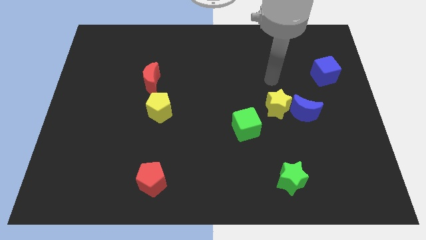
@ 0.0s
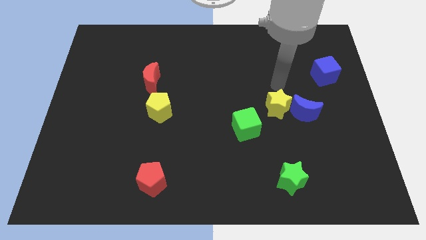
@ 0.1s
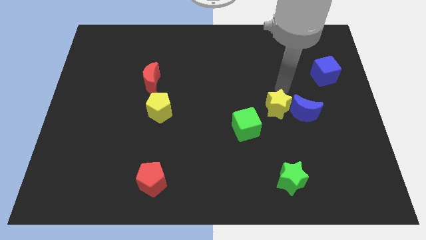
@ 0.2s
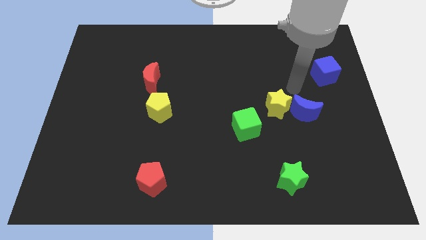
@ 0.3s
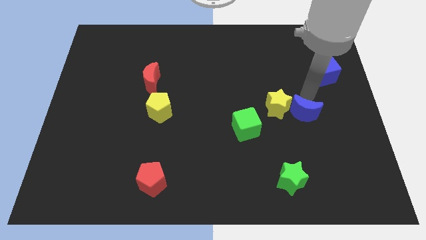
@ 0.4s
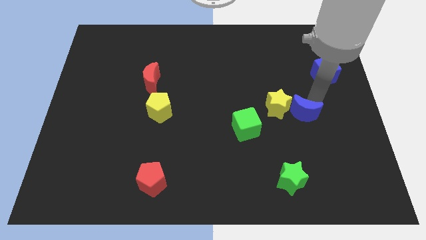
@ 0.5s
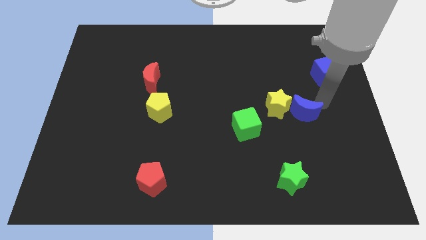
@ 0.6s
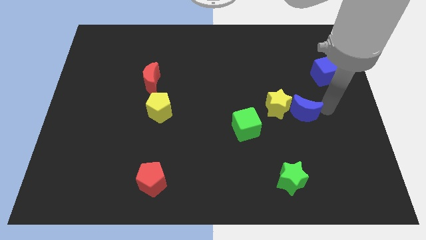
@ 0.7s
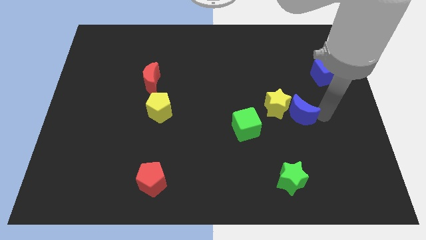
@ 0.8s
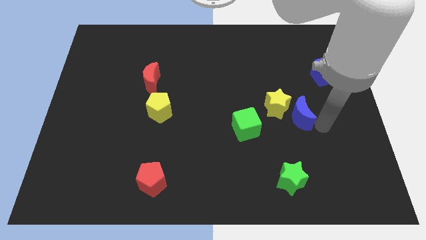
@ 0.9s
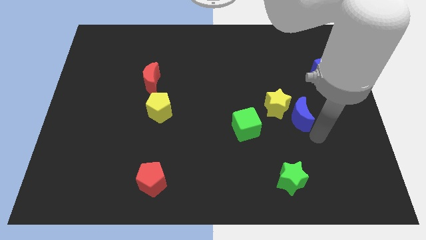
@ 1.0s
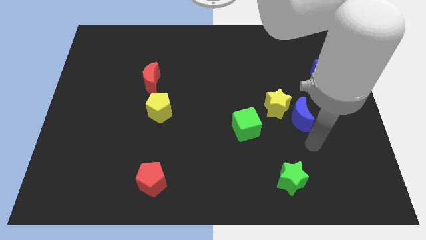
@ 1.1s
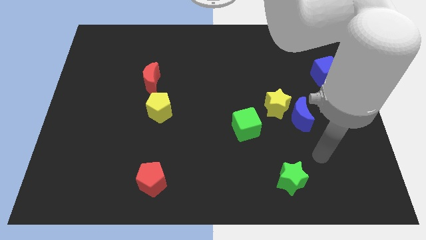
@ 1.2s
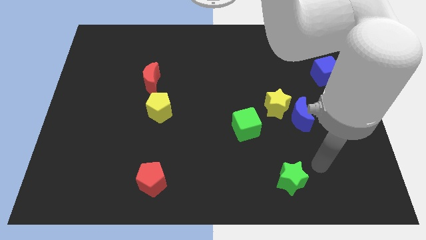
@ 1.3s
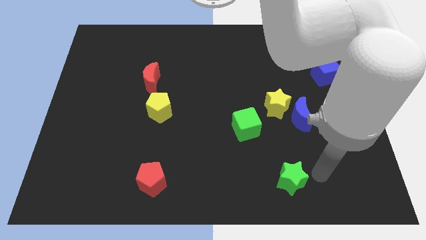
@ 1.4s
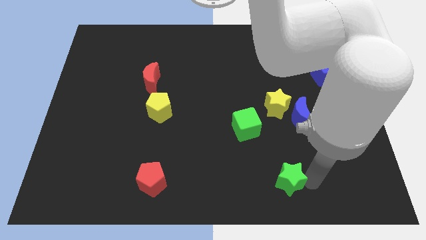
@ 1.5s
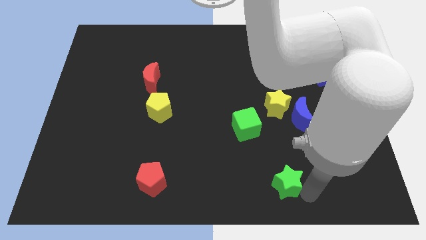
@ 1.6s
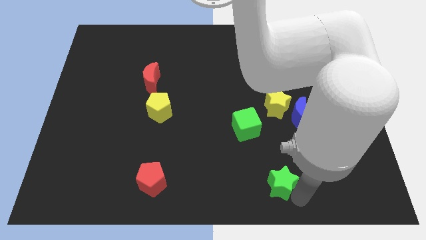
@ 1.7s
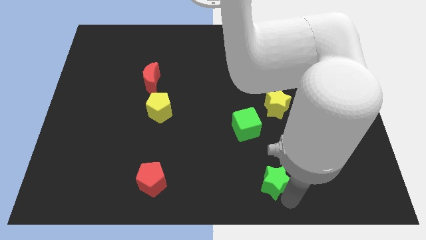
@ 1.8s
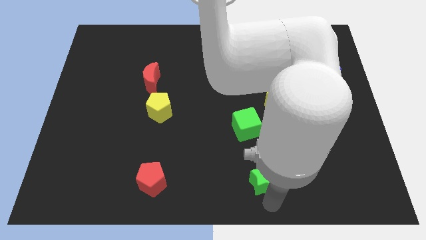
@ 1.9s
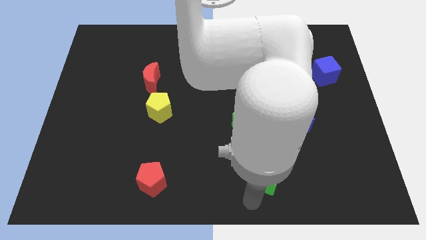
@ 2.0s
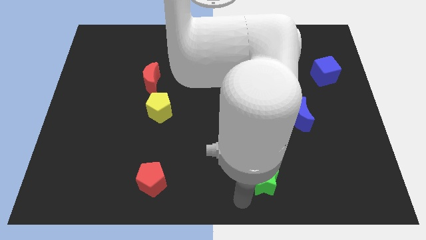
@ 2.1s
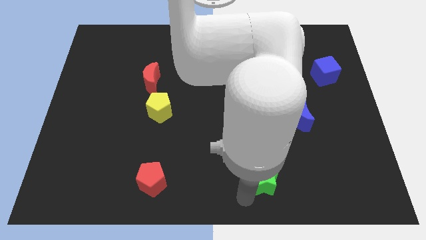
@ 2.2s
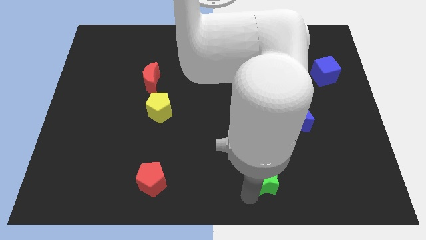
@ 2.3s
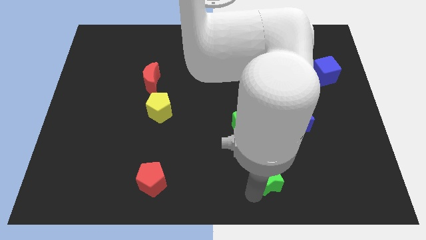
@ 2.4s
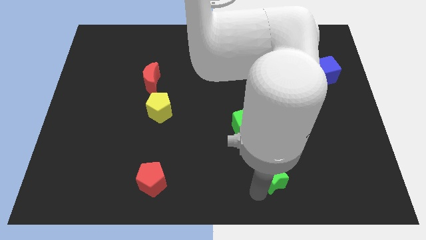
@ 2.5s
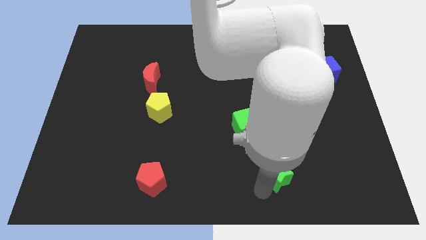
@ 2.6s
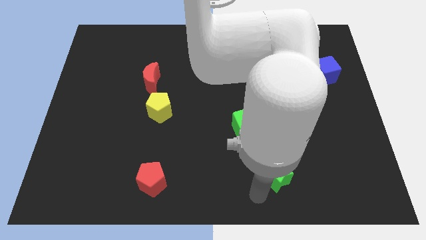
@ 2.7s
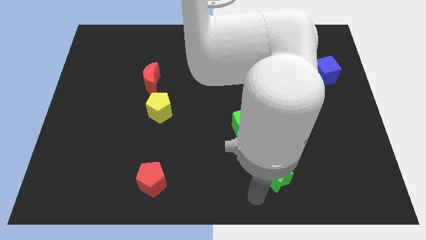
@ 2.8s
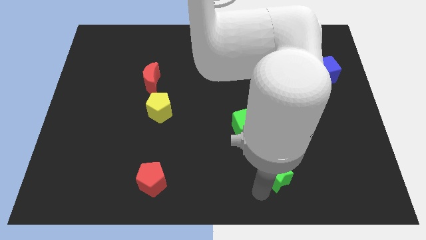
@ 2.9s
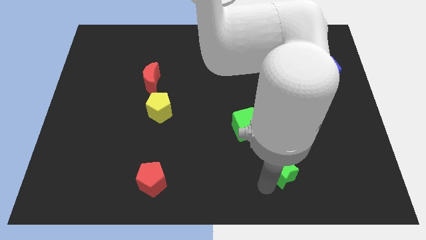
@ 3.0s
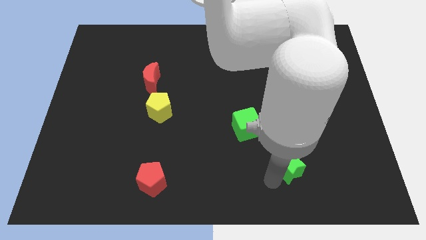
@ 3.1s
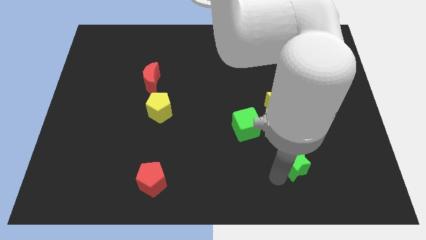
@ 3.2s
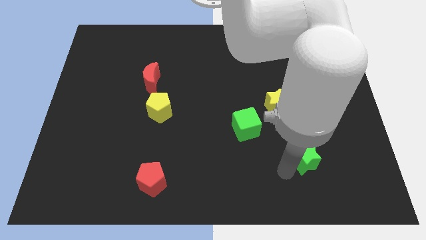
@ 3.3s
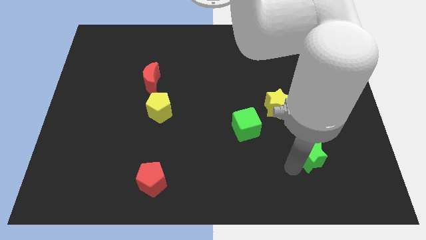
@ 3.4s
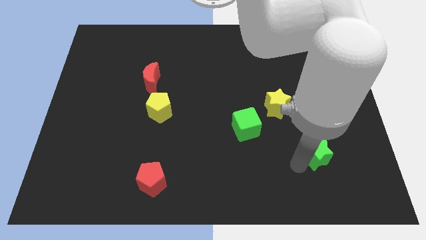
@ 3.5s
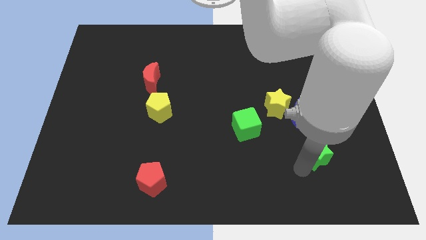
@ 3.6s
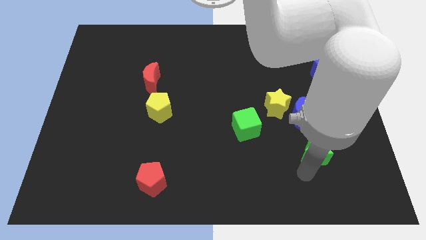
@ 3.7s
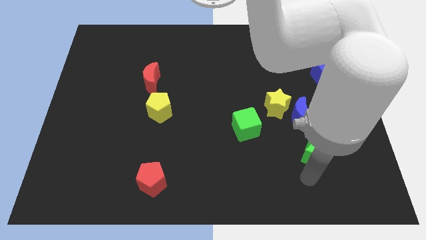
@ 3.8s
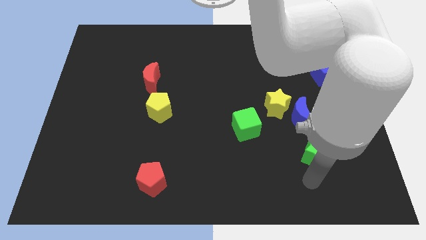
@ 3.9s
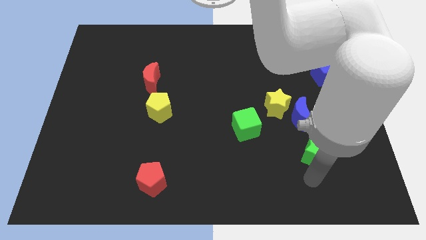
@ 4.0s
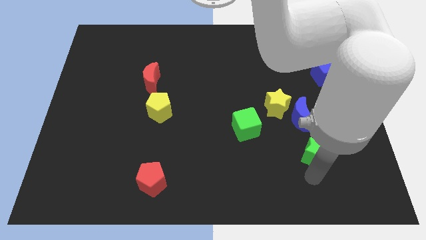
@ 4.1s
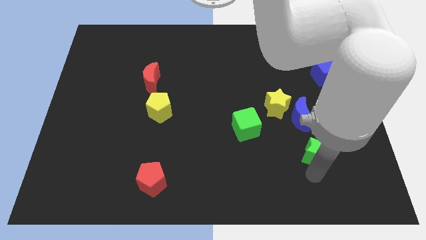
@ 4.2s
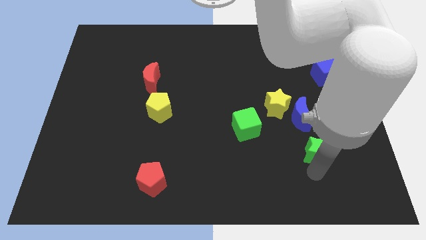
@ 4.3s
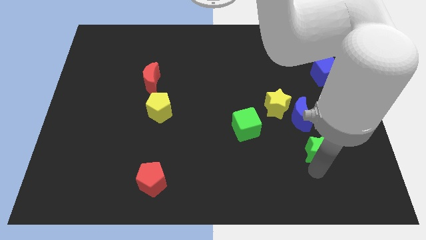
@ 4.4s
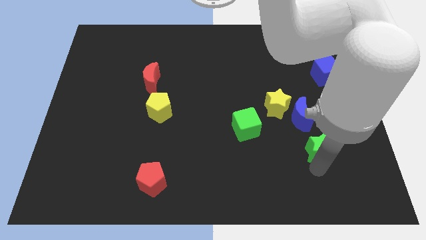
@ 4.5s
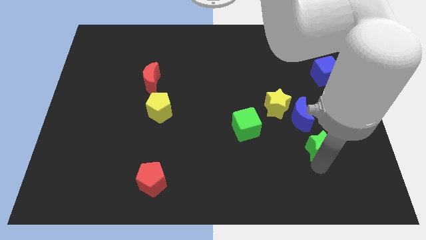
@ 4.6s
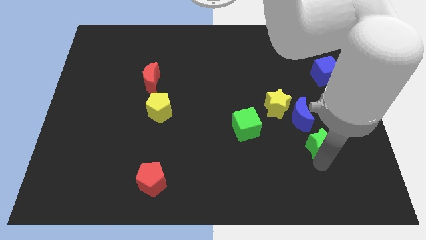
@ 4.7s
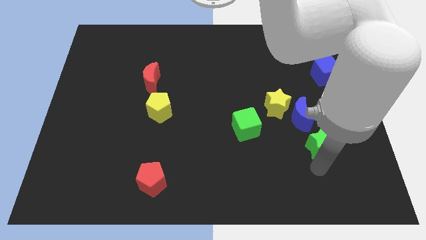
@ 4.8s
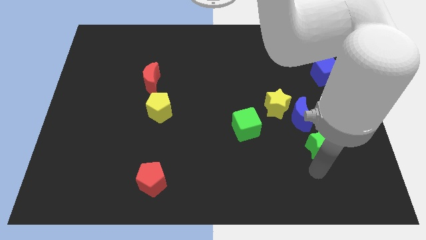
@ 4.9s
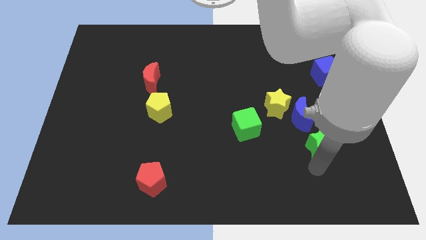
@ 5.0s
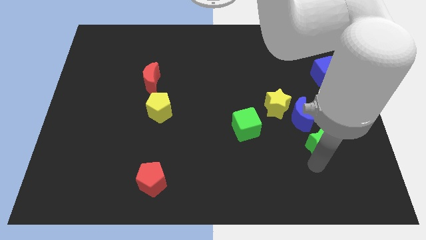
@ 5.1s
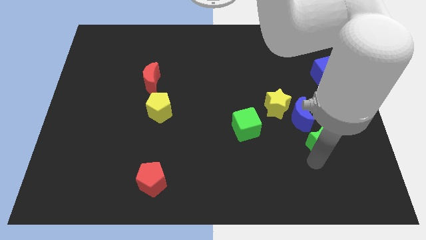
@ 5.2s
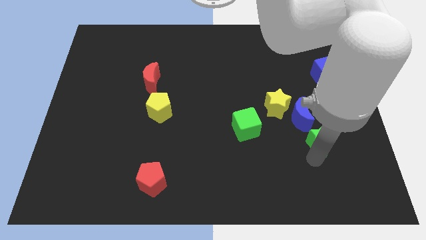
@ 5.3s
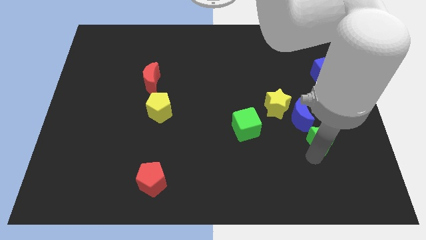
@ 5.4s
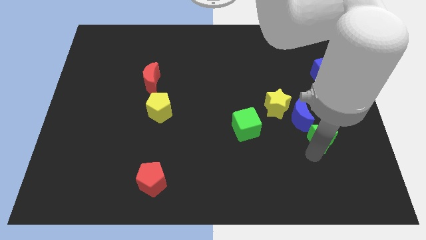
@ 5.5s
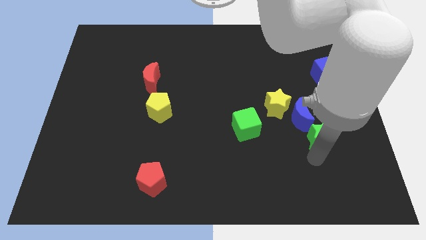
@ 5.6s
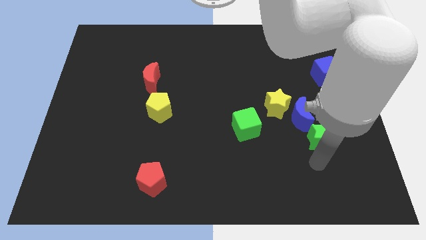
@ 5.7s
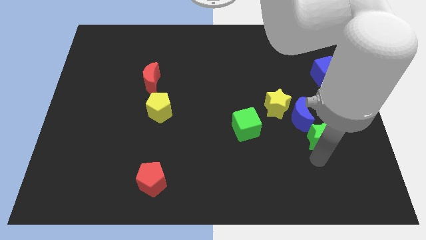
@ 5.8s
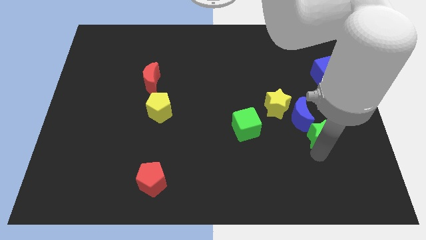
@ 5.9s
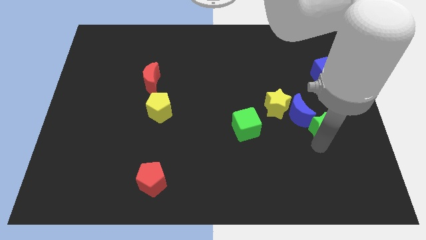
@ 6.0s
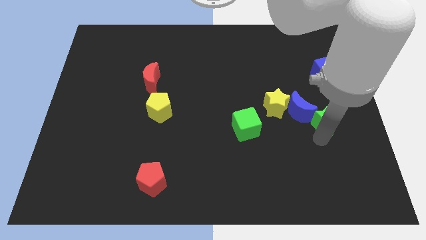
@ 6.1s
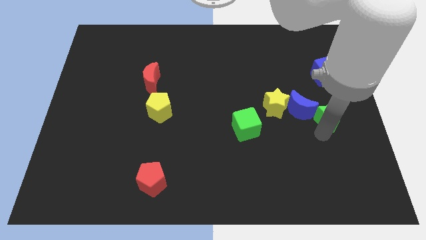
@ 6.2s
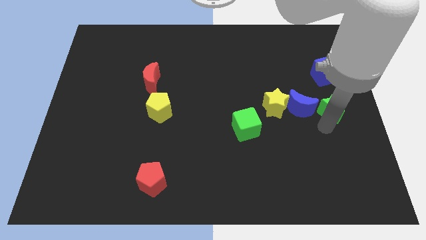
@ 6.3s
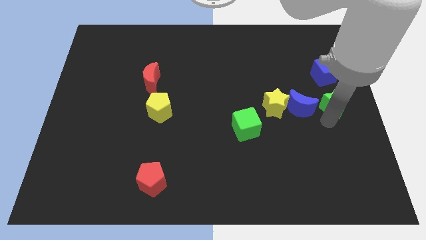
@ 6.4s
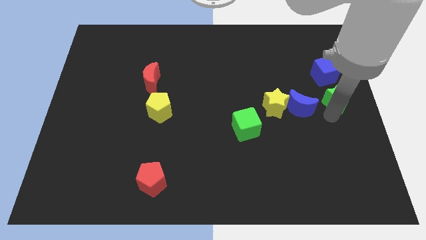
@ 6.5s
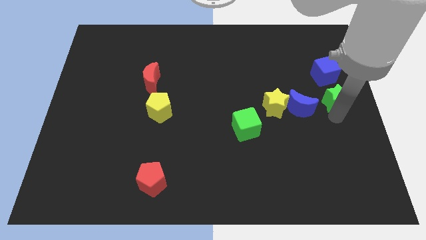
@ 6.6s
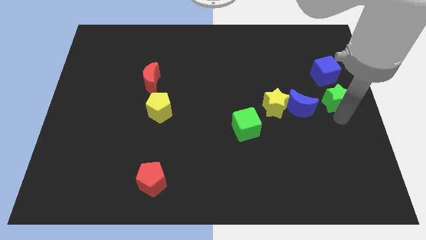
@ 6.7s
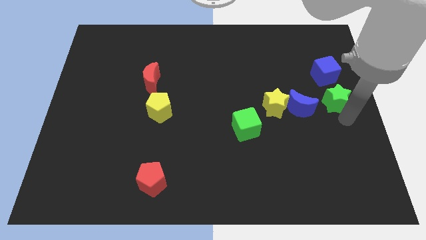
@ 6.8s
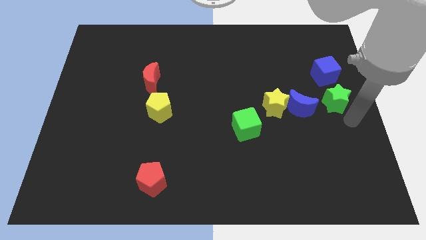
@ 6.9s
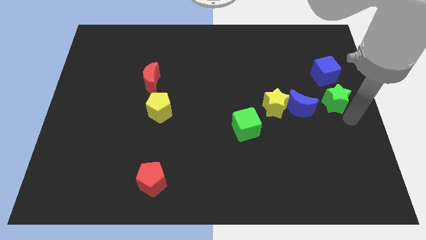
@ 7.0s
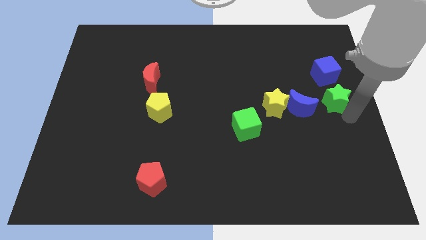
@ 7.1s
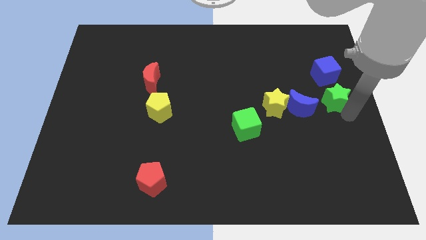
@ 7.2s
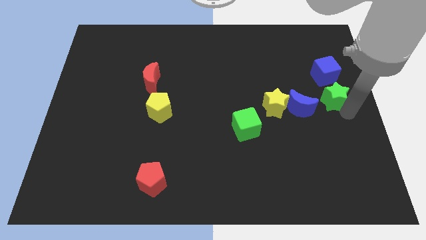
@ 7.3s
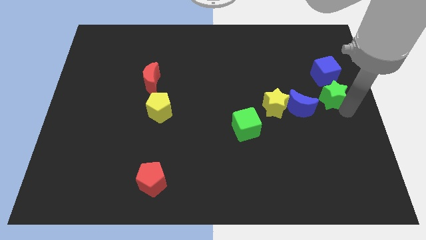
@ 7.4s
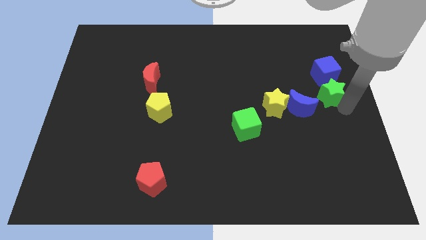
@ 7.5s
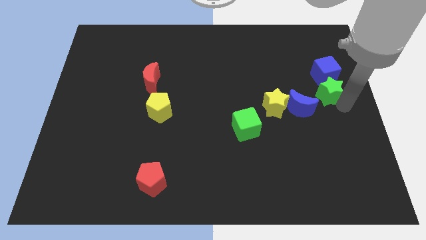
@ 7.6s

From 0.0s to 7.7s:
move the green star towards the blue cube
